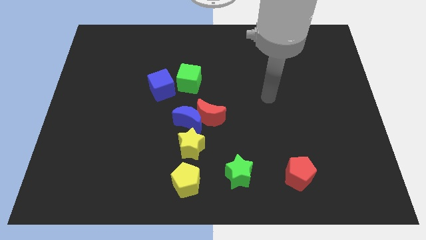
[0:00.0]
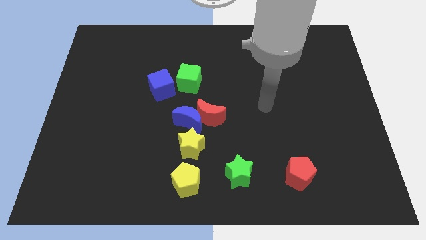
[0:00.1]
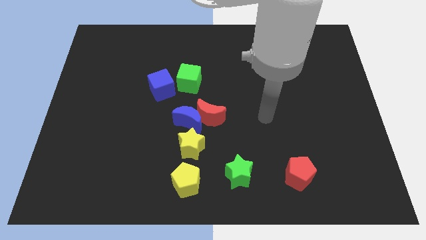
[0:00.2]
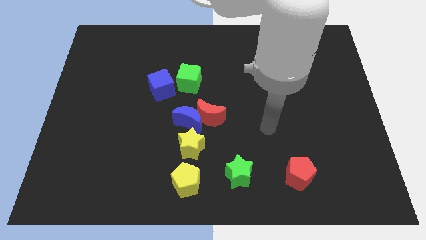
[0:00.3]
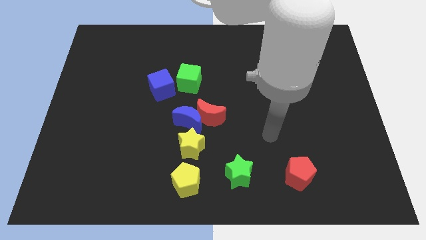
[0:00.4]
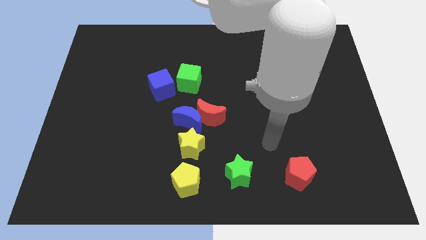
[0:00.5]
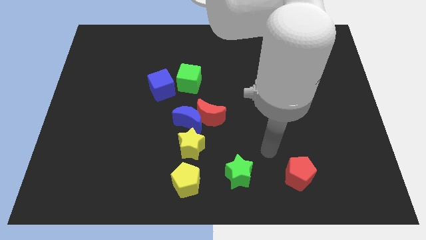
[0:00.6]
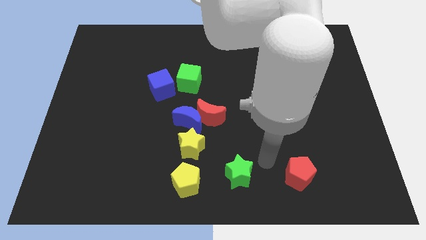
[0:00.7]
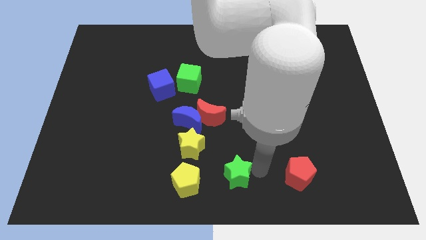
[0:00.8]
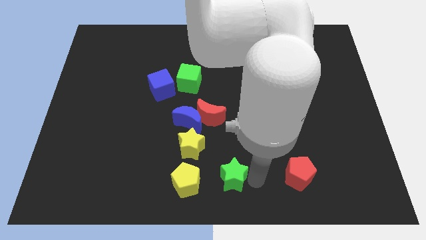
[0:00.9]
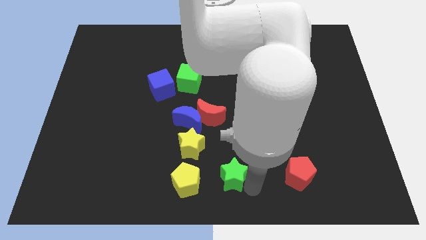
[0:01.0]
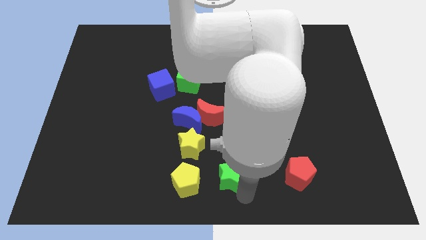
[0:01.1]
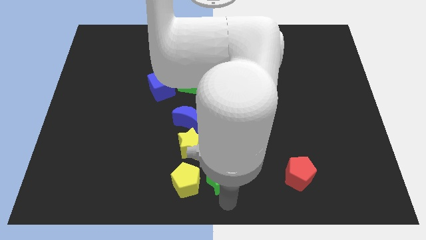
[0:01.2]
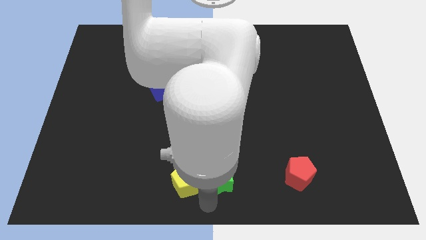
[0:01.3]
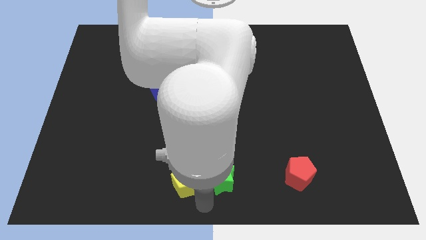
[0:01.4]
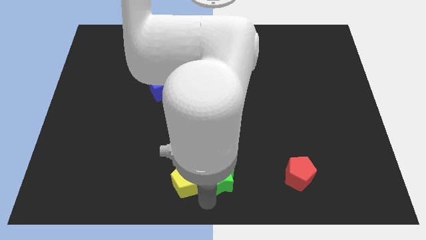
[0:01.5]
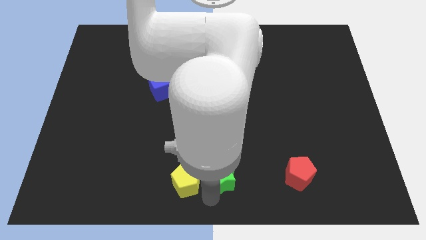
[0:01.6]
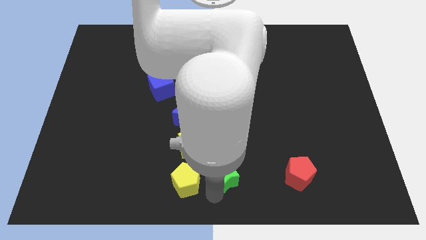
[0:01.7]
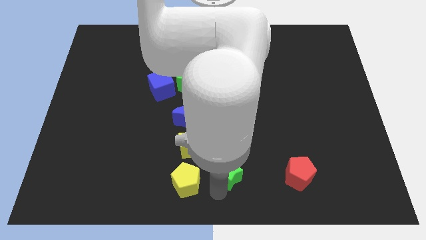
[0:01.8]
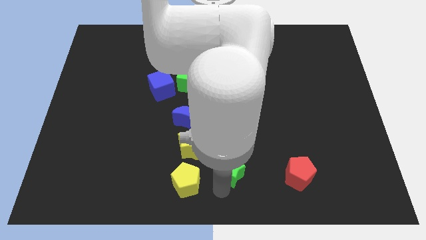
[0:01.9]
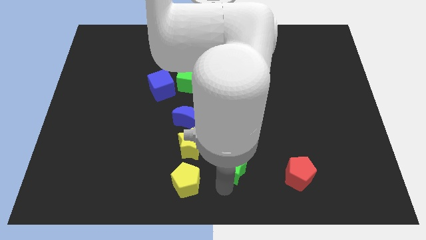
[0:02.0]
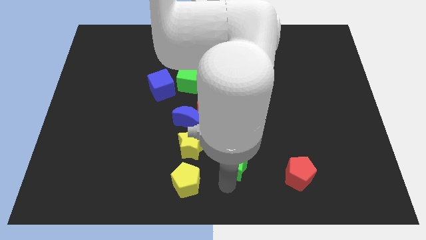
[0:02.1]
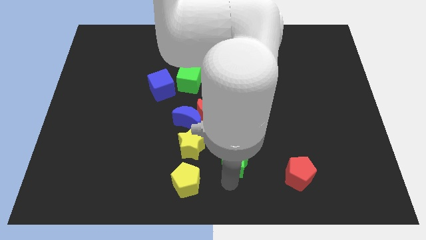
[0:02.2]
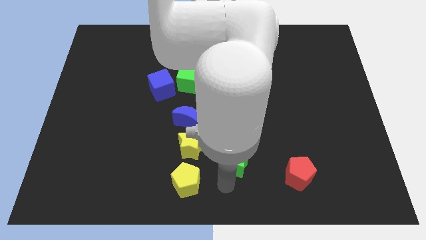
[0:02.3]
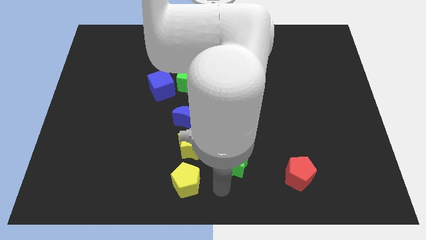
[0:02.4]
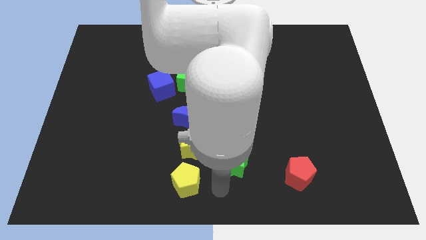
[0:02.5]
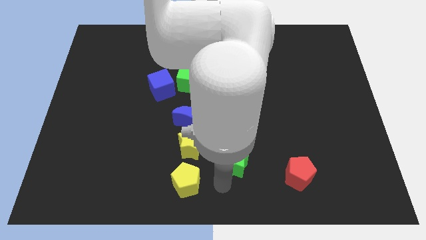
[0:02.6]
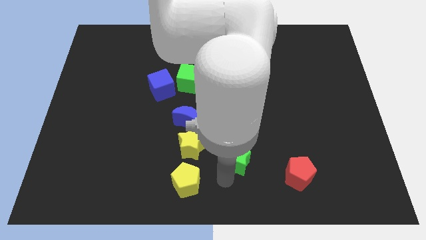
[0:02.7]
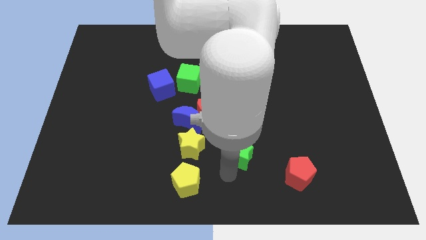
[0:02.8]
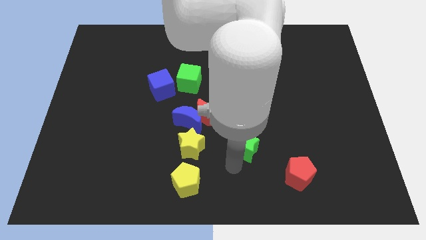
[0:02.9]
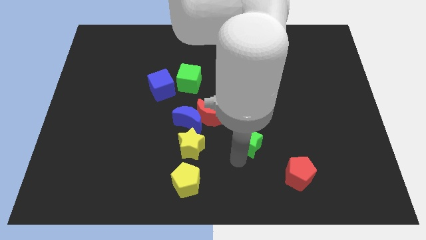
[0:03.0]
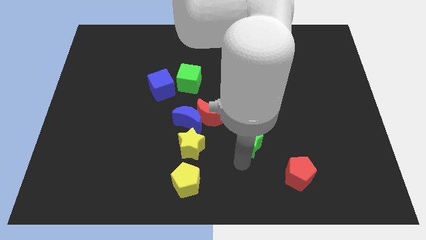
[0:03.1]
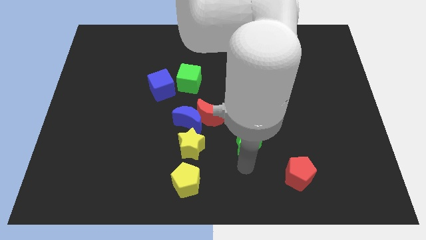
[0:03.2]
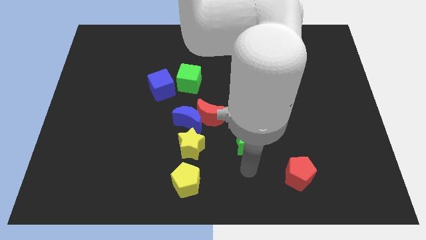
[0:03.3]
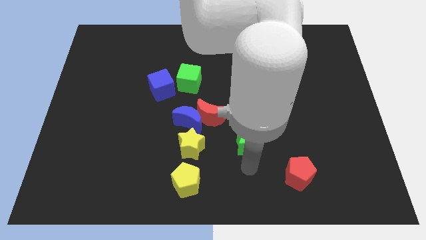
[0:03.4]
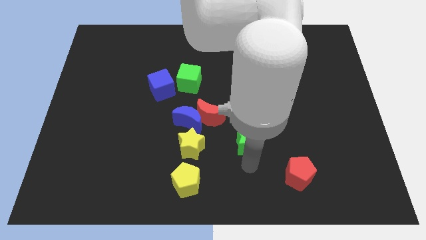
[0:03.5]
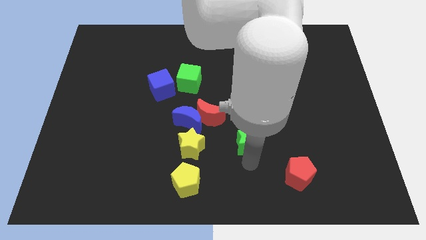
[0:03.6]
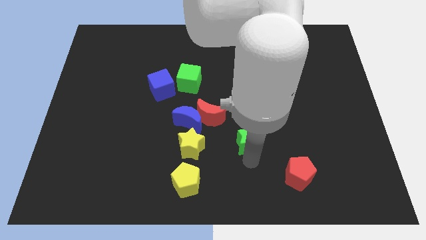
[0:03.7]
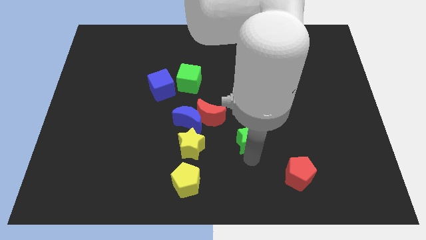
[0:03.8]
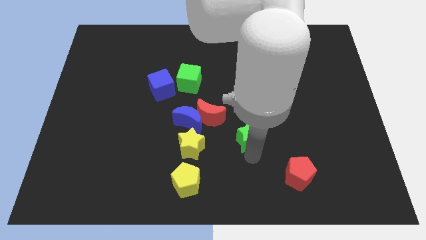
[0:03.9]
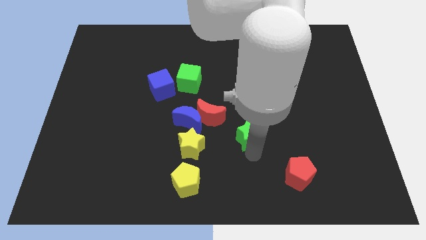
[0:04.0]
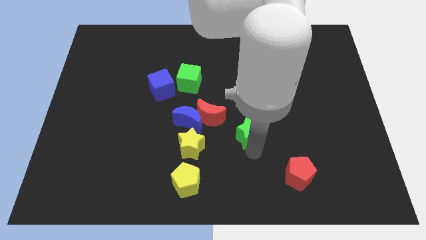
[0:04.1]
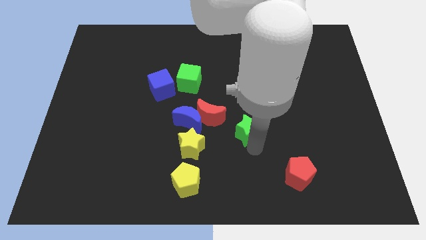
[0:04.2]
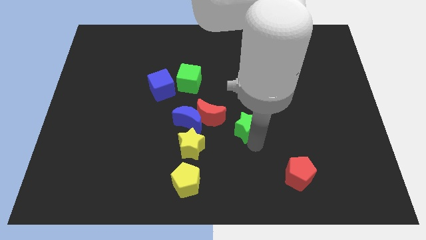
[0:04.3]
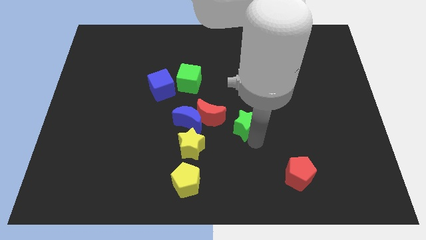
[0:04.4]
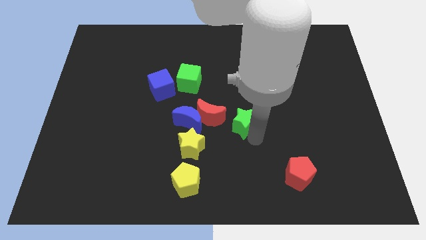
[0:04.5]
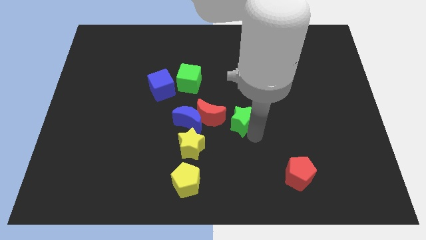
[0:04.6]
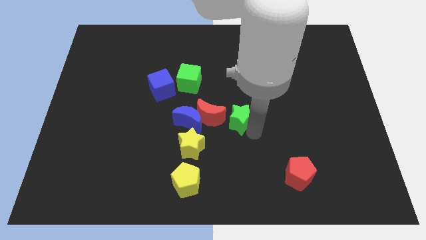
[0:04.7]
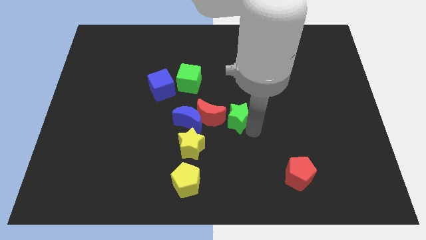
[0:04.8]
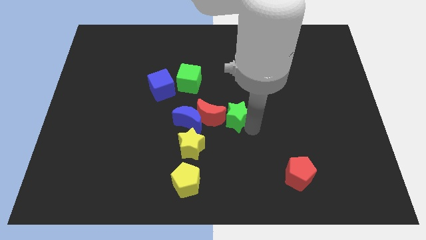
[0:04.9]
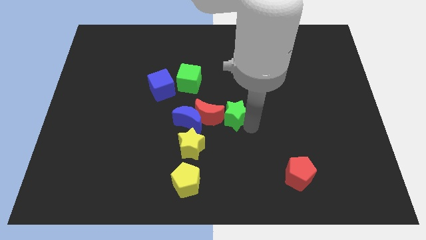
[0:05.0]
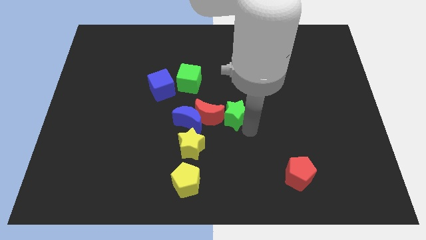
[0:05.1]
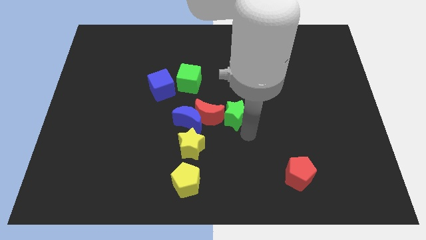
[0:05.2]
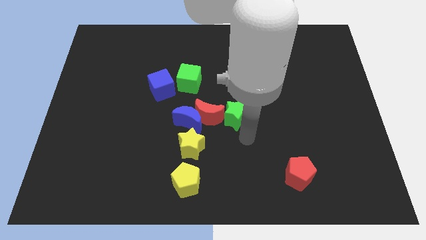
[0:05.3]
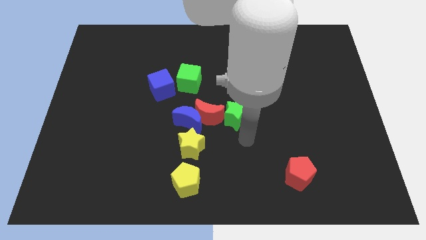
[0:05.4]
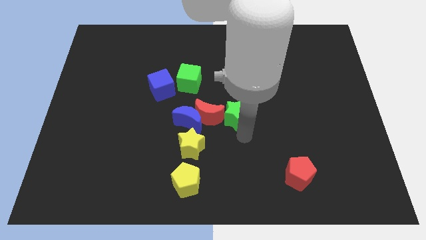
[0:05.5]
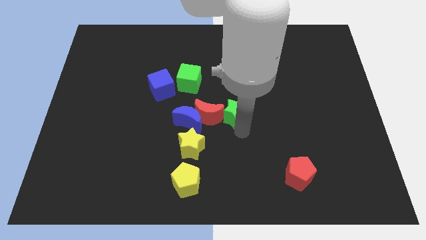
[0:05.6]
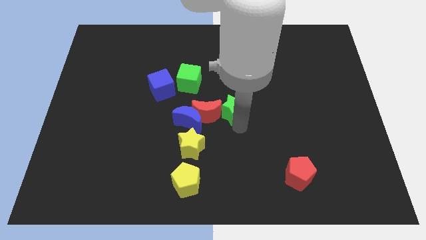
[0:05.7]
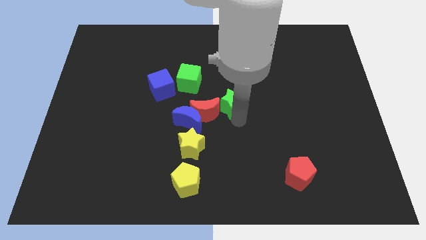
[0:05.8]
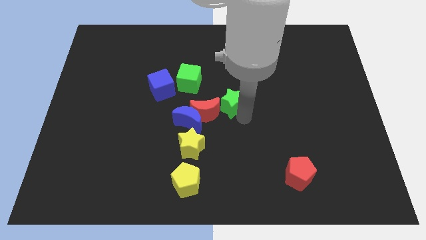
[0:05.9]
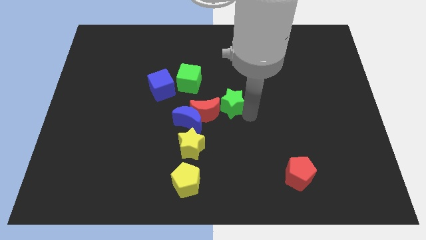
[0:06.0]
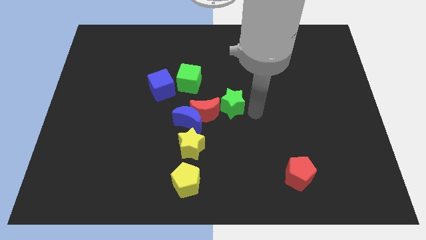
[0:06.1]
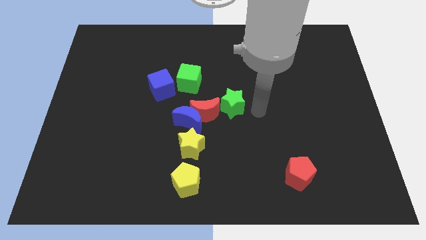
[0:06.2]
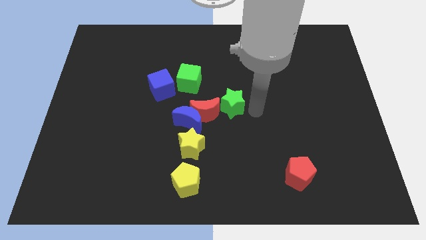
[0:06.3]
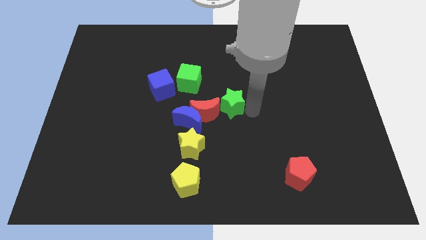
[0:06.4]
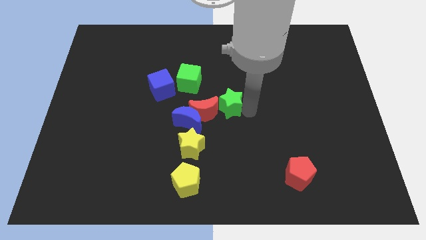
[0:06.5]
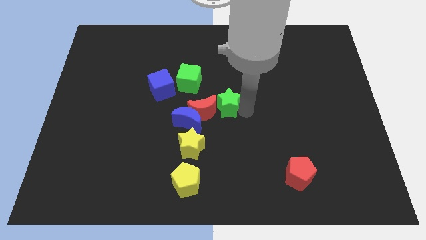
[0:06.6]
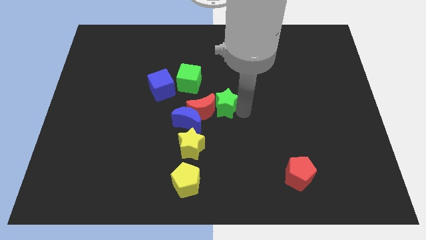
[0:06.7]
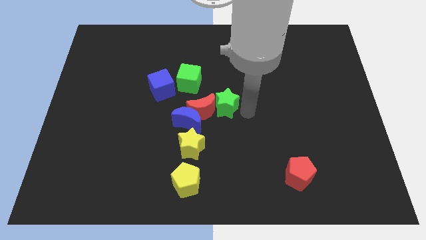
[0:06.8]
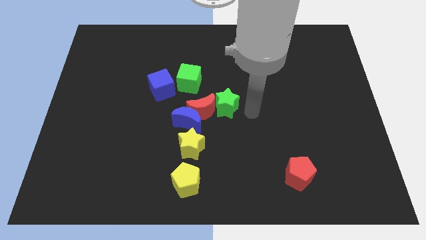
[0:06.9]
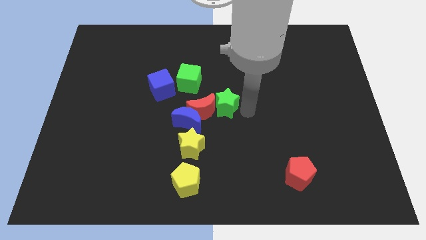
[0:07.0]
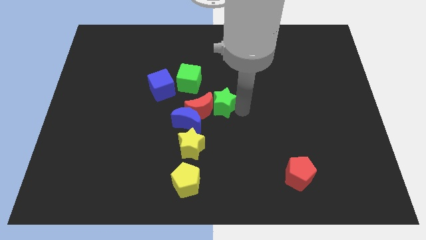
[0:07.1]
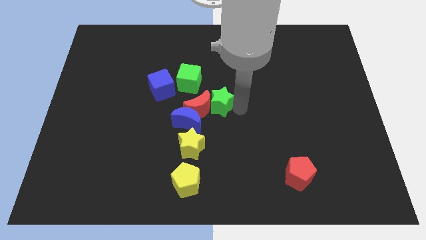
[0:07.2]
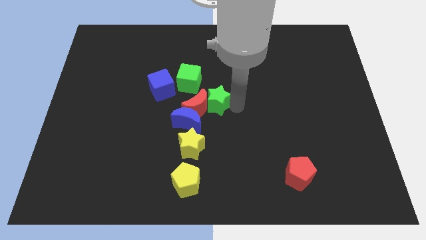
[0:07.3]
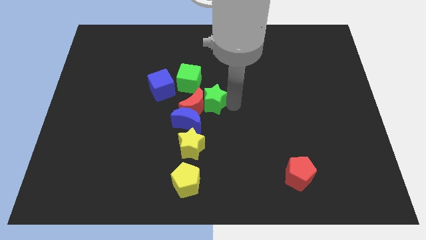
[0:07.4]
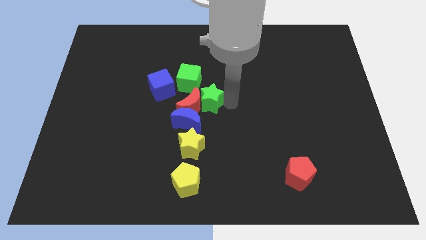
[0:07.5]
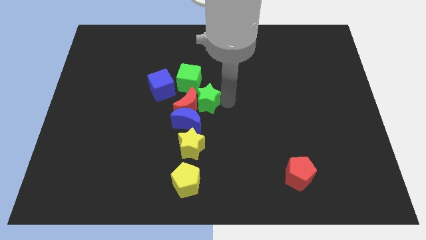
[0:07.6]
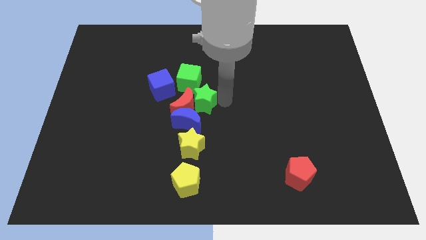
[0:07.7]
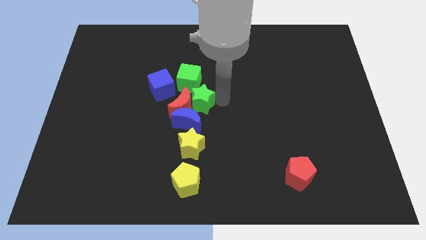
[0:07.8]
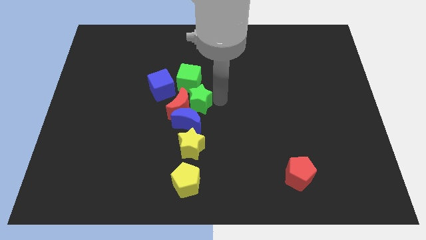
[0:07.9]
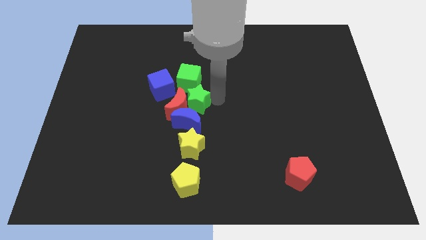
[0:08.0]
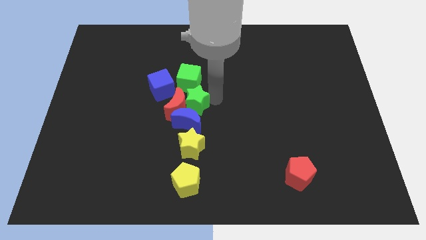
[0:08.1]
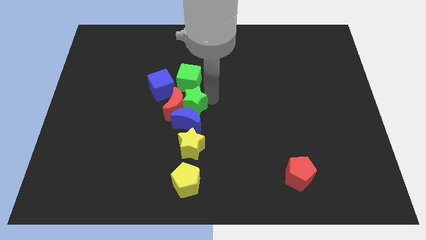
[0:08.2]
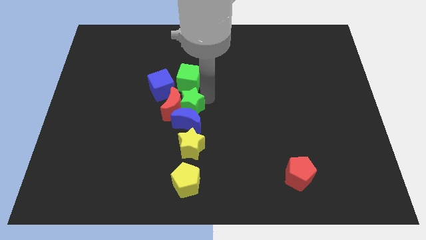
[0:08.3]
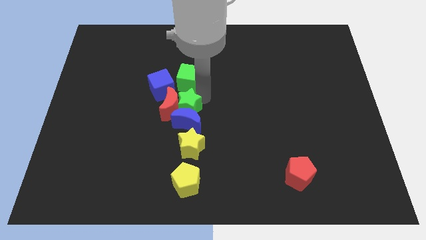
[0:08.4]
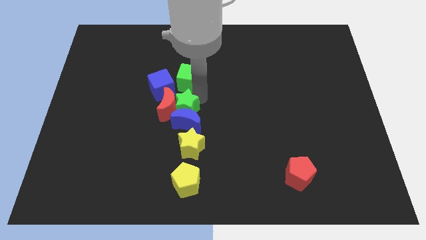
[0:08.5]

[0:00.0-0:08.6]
push the green star diagonally up and to the left
